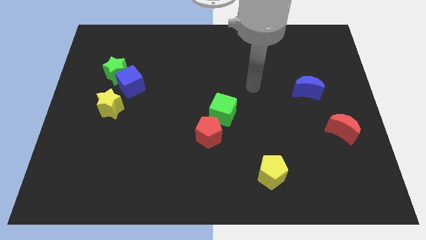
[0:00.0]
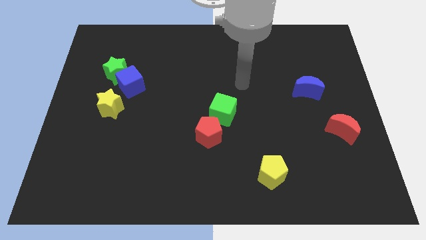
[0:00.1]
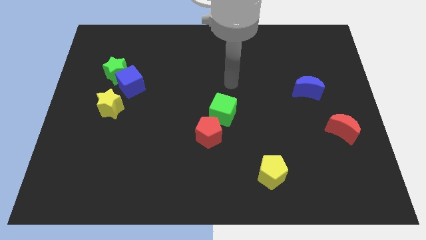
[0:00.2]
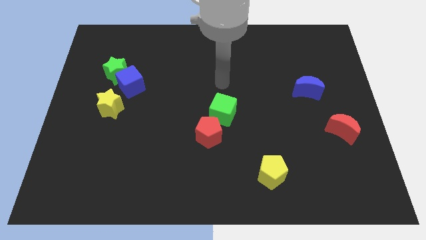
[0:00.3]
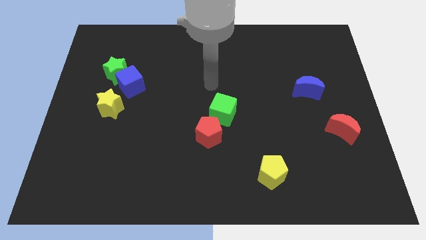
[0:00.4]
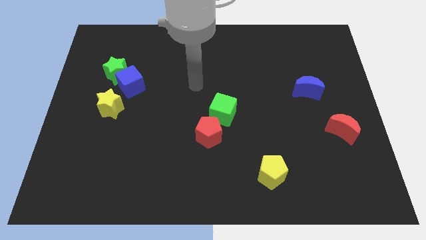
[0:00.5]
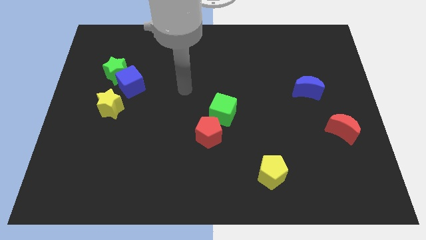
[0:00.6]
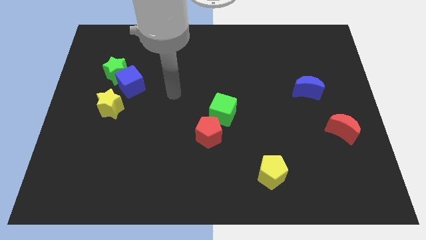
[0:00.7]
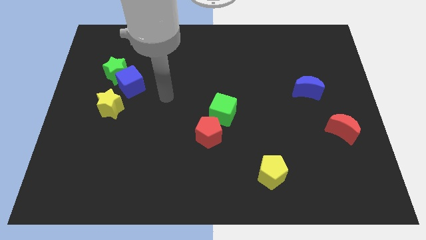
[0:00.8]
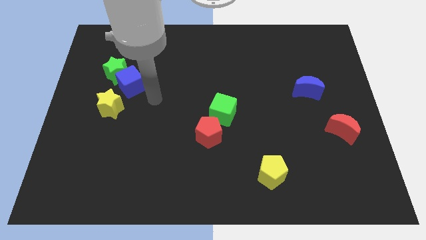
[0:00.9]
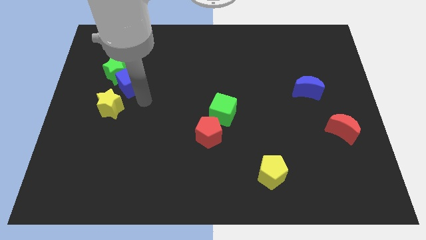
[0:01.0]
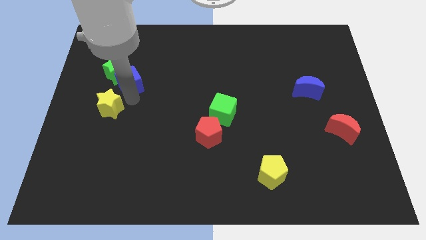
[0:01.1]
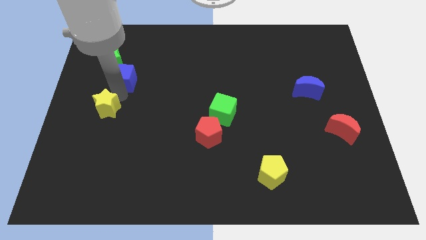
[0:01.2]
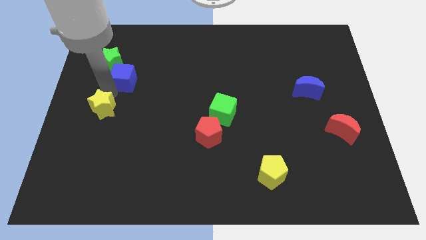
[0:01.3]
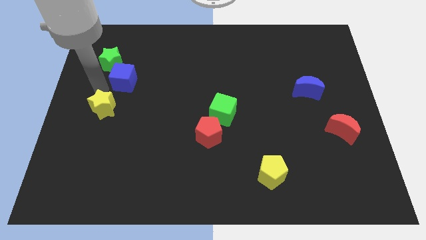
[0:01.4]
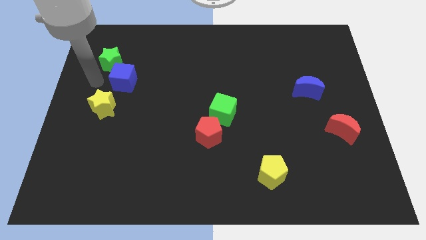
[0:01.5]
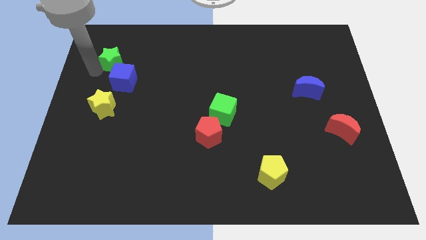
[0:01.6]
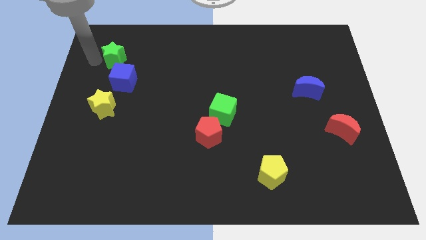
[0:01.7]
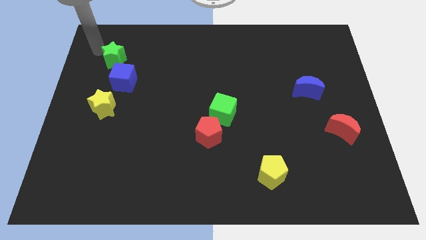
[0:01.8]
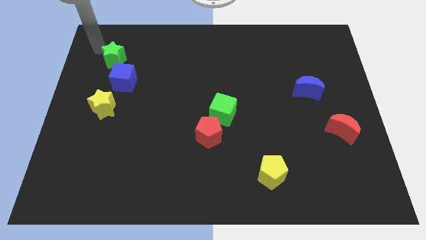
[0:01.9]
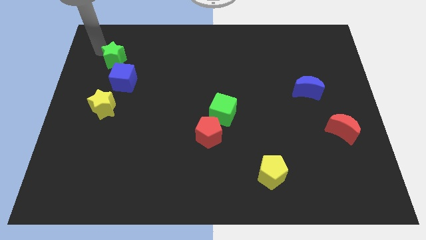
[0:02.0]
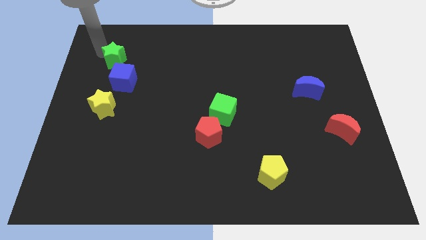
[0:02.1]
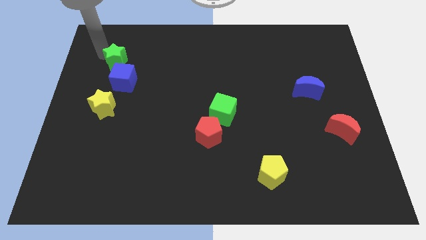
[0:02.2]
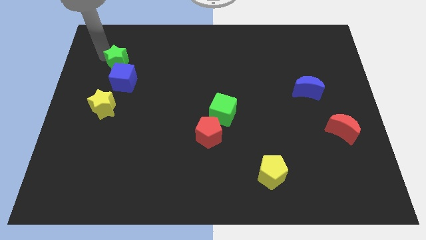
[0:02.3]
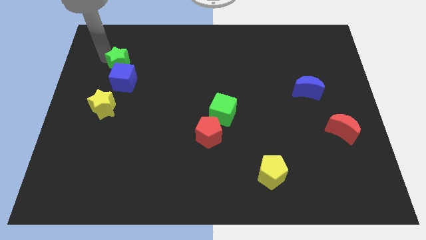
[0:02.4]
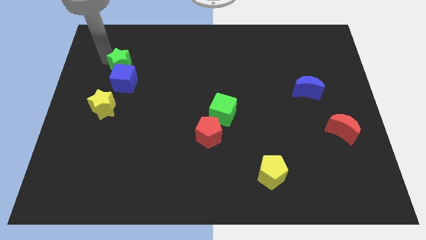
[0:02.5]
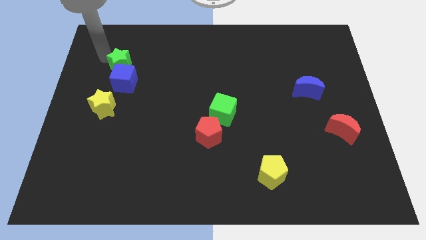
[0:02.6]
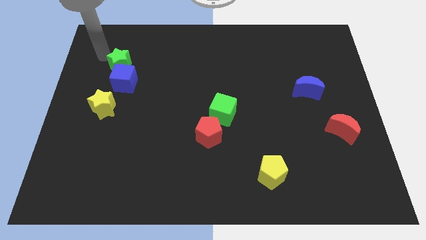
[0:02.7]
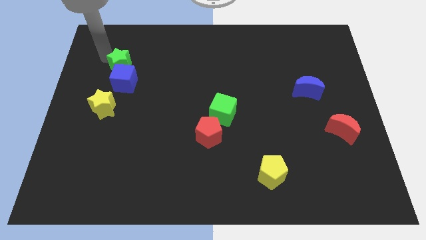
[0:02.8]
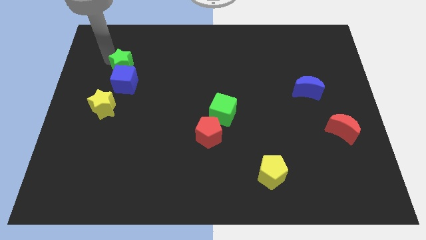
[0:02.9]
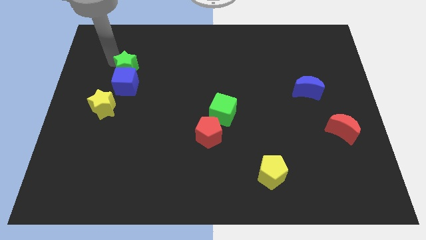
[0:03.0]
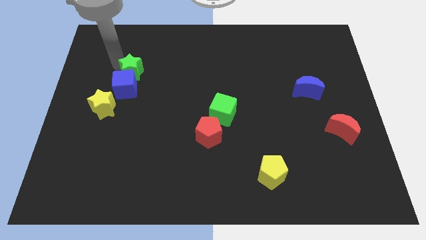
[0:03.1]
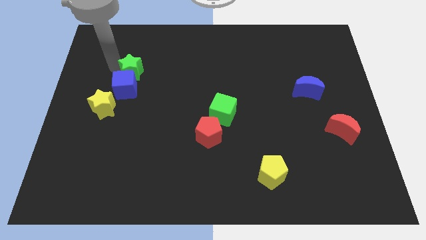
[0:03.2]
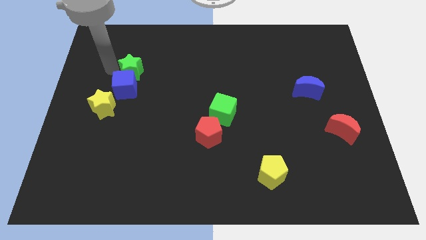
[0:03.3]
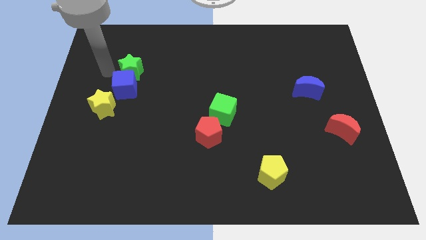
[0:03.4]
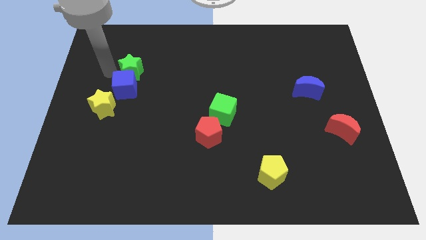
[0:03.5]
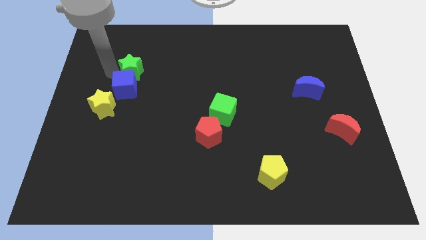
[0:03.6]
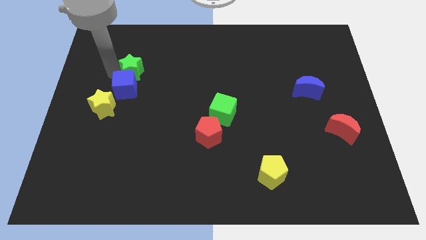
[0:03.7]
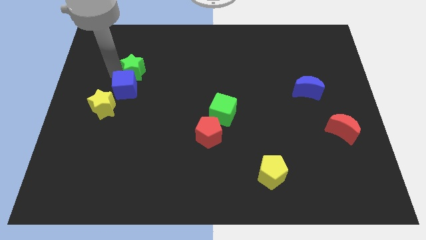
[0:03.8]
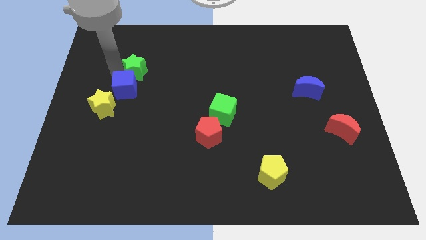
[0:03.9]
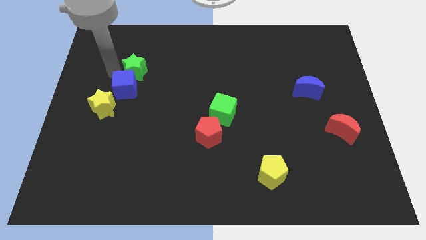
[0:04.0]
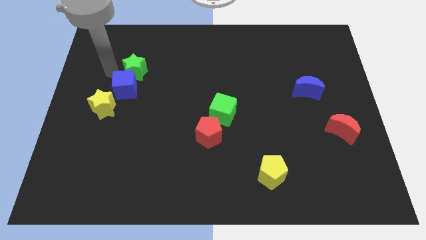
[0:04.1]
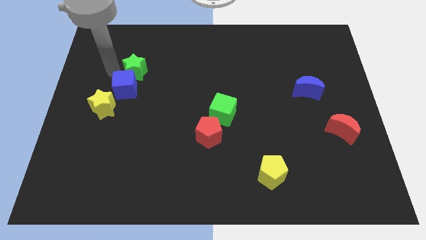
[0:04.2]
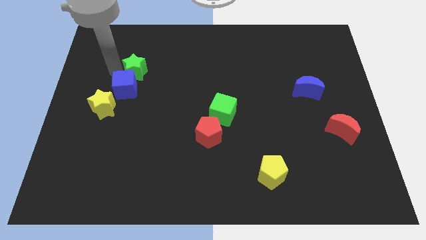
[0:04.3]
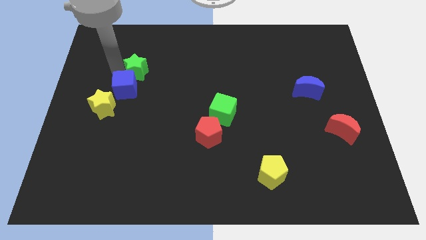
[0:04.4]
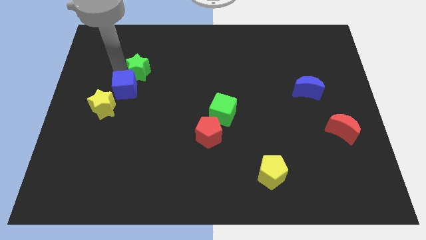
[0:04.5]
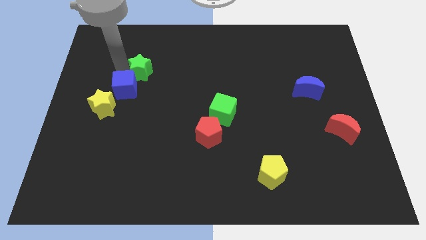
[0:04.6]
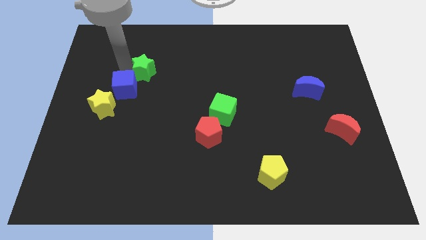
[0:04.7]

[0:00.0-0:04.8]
move the green star a little bit right

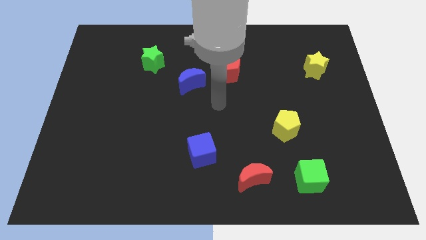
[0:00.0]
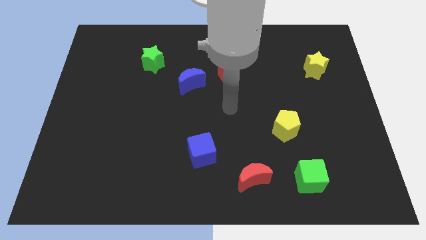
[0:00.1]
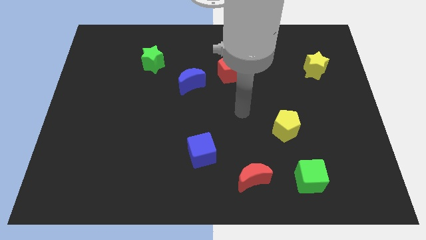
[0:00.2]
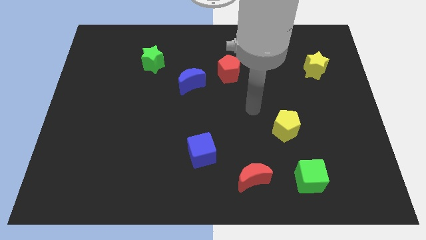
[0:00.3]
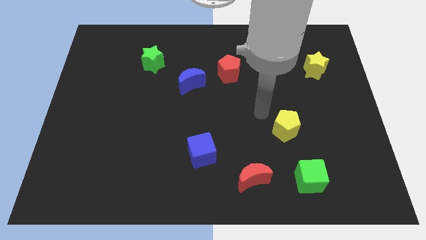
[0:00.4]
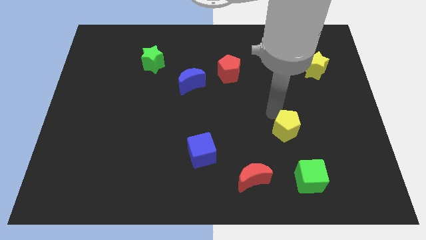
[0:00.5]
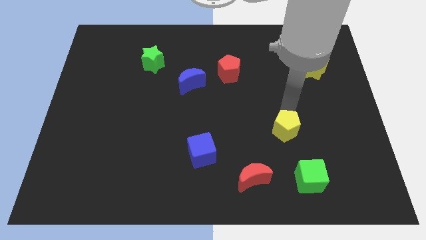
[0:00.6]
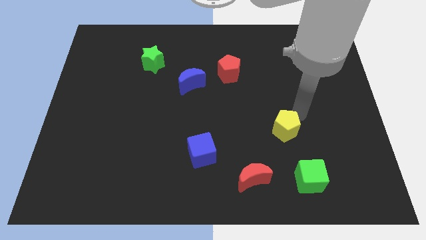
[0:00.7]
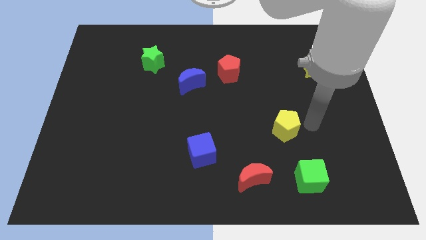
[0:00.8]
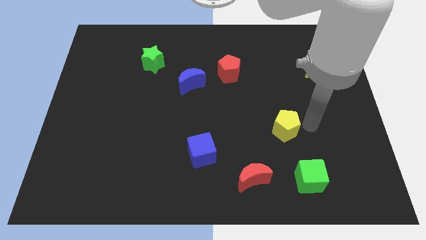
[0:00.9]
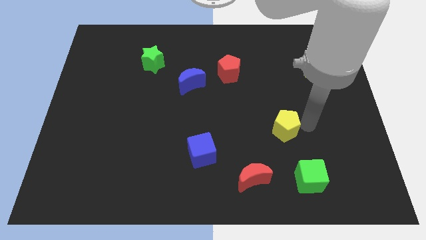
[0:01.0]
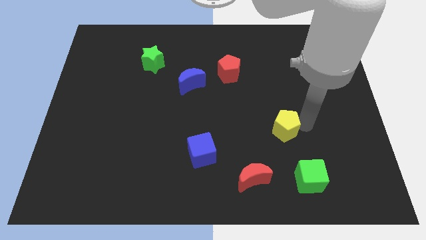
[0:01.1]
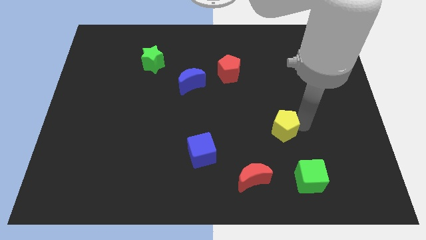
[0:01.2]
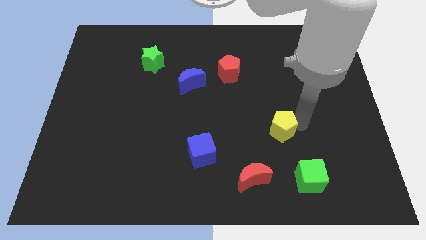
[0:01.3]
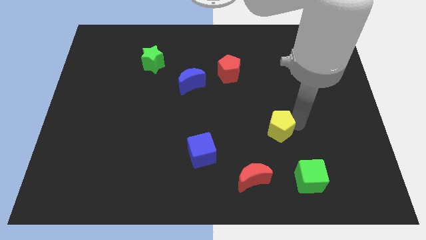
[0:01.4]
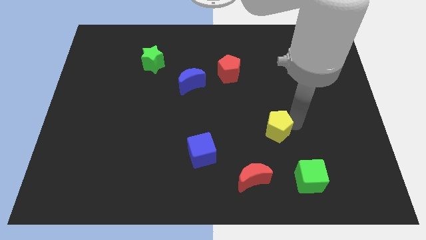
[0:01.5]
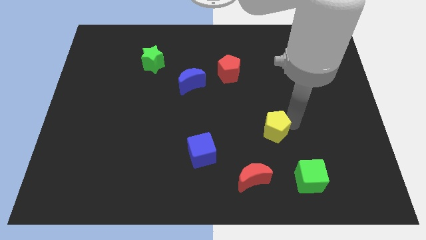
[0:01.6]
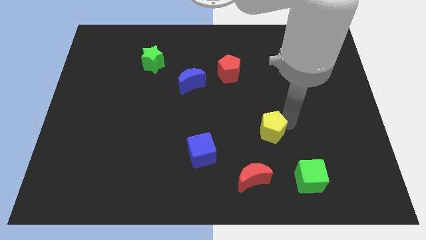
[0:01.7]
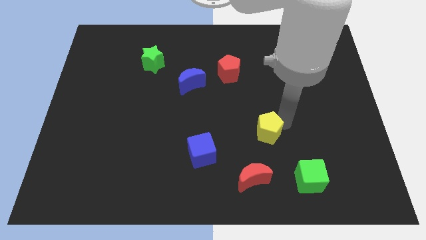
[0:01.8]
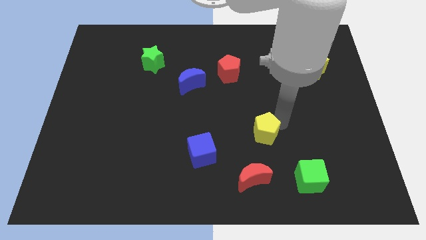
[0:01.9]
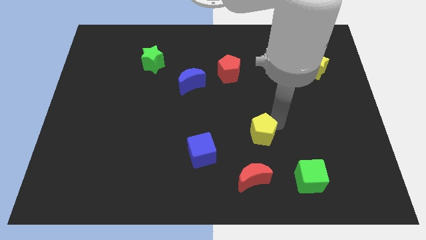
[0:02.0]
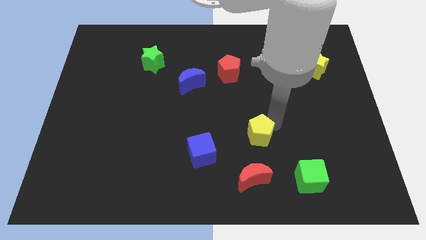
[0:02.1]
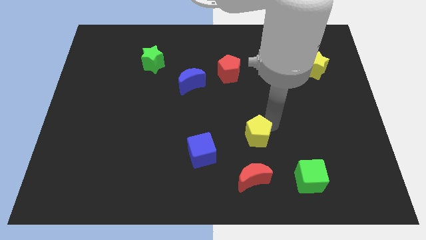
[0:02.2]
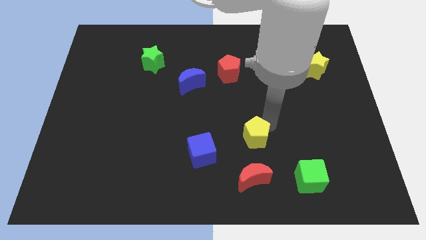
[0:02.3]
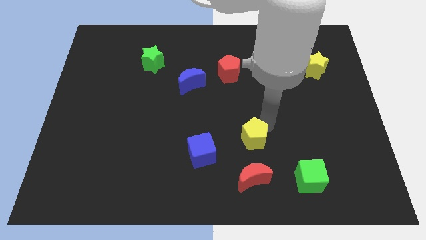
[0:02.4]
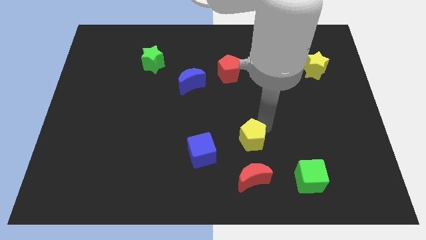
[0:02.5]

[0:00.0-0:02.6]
slightly push the yellow pentagon down and to the left

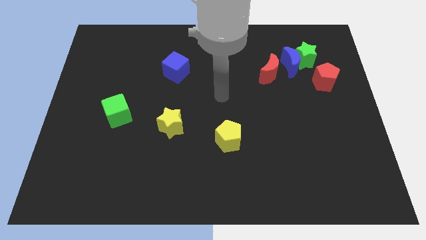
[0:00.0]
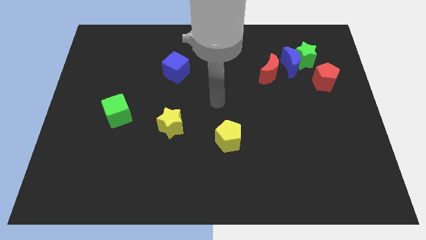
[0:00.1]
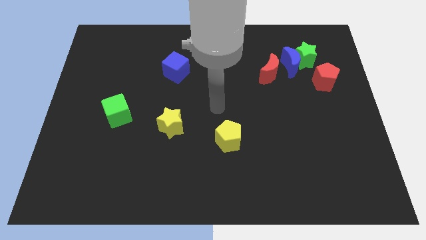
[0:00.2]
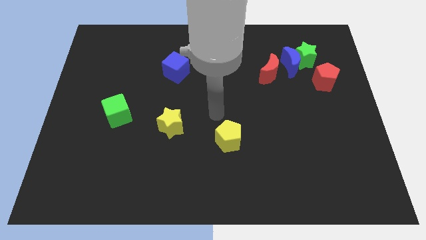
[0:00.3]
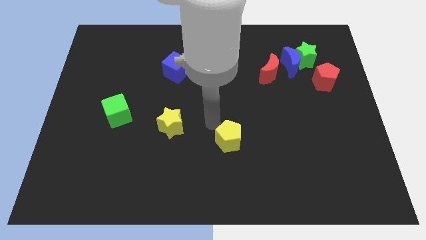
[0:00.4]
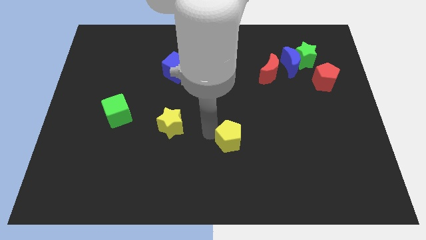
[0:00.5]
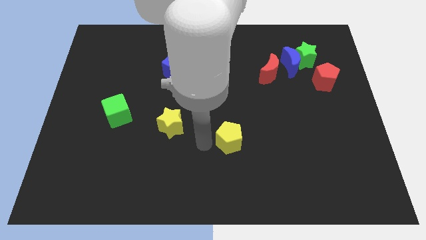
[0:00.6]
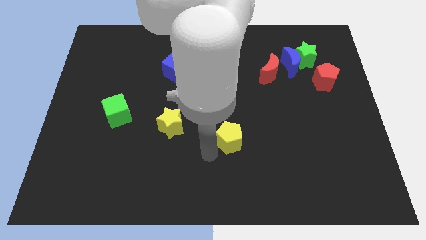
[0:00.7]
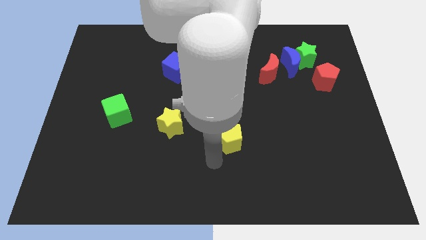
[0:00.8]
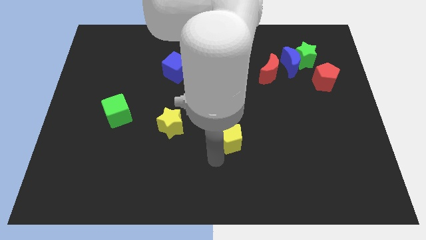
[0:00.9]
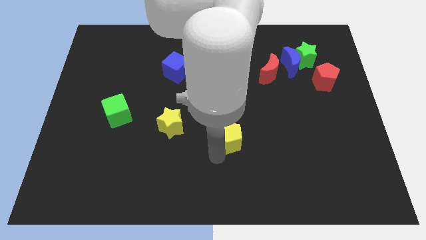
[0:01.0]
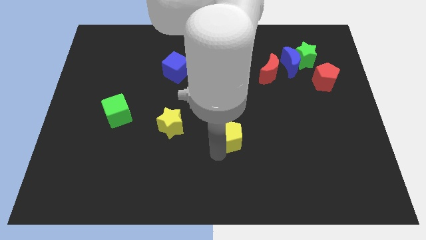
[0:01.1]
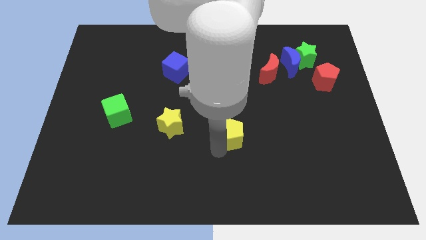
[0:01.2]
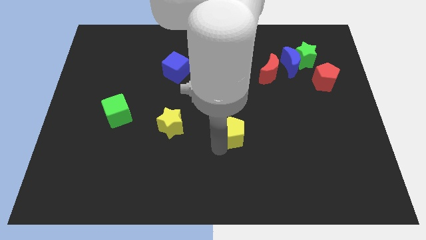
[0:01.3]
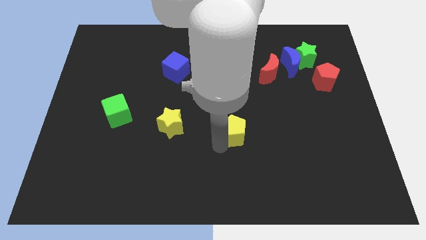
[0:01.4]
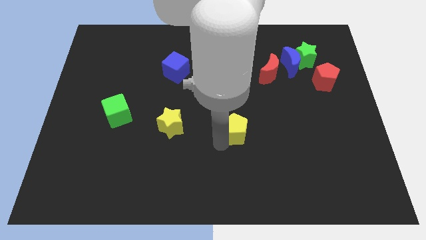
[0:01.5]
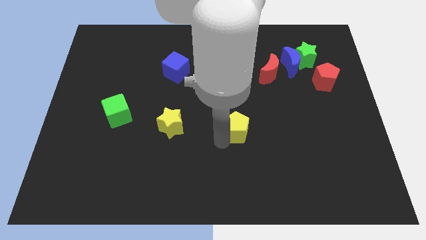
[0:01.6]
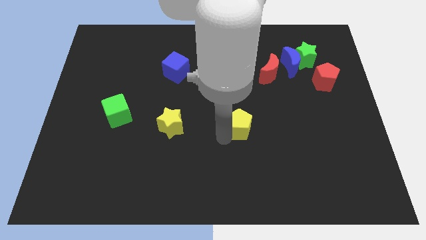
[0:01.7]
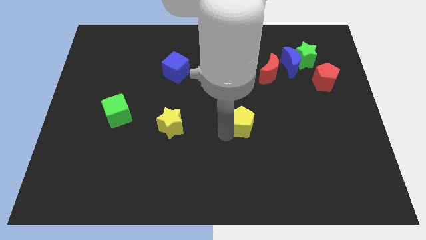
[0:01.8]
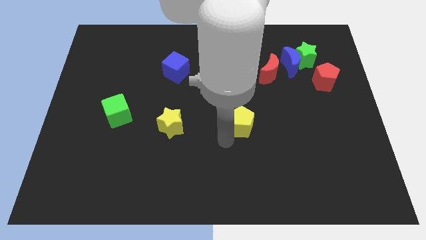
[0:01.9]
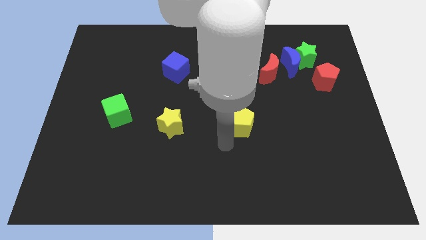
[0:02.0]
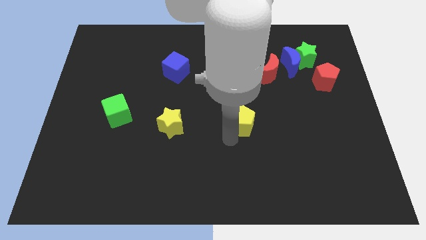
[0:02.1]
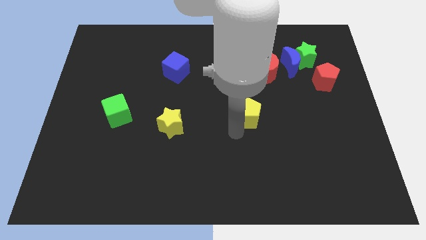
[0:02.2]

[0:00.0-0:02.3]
push the yellow pentagon up and then to the right a bit
